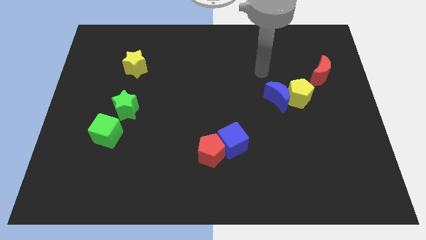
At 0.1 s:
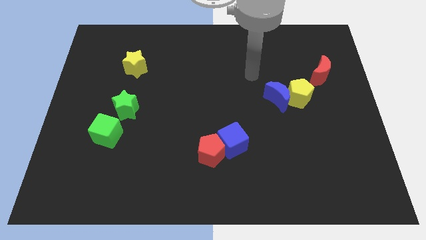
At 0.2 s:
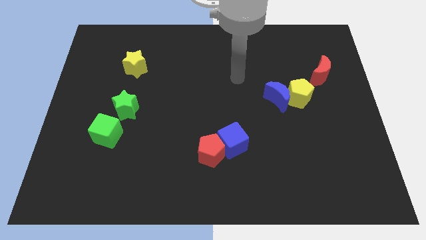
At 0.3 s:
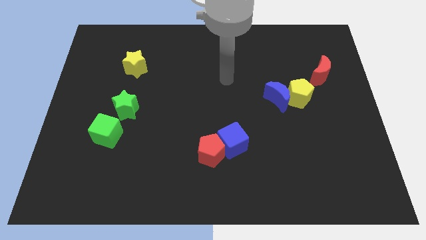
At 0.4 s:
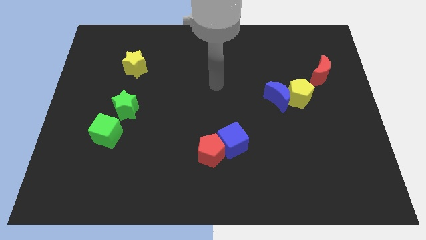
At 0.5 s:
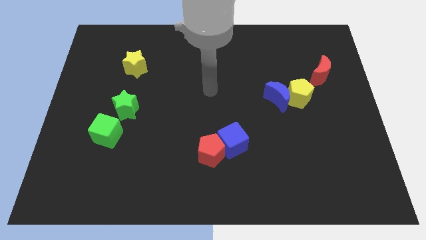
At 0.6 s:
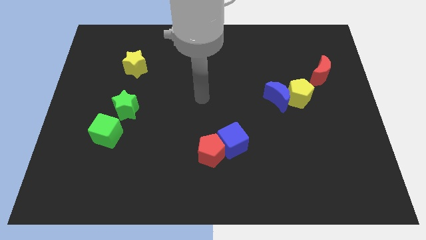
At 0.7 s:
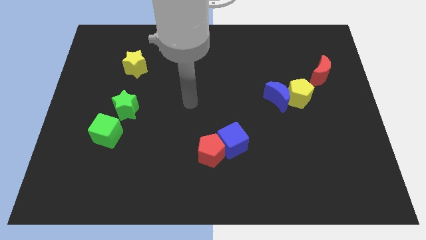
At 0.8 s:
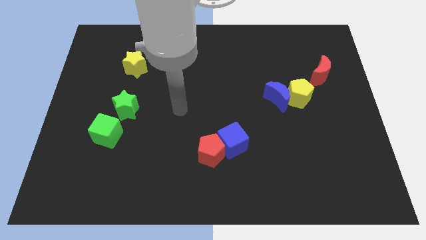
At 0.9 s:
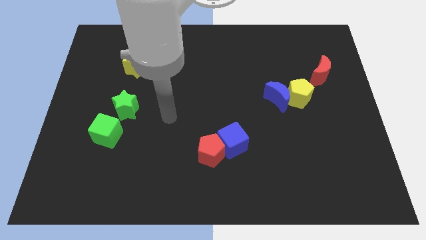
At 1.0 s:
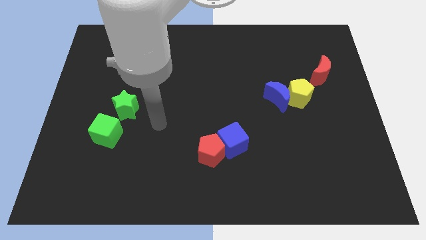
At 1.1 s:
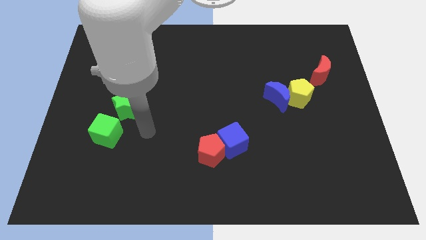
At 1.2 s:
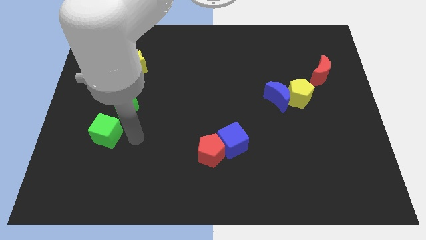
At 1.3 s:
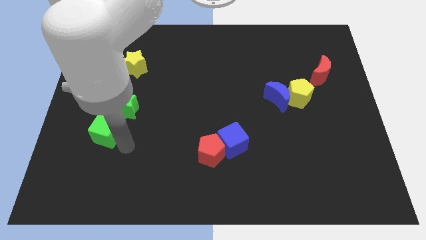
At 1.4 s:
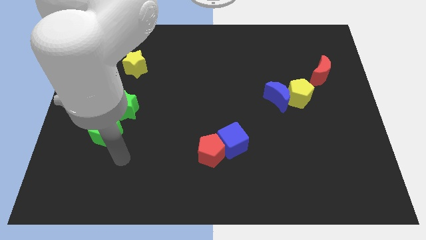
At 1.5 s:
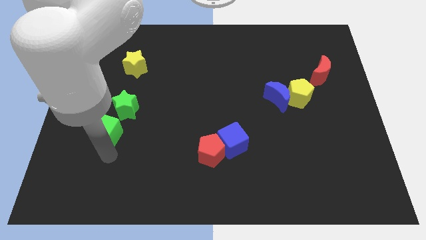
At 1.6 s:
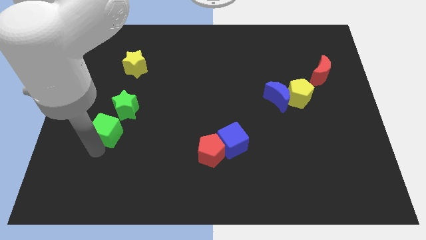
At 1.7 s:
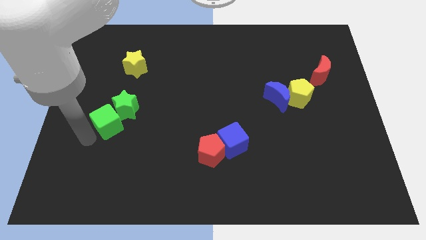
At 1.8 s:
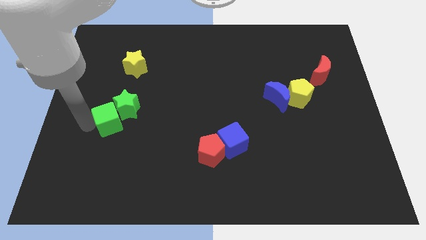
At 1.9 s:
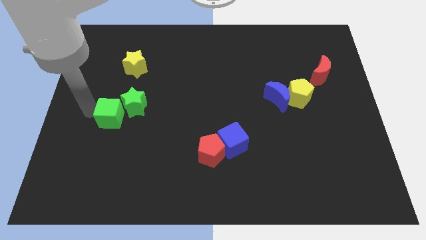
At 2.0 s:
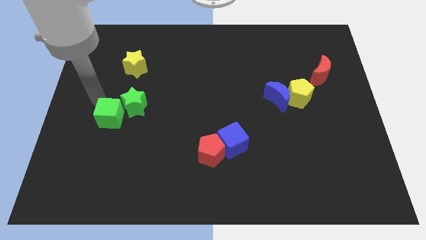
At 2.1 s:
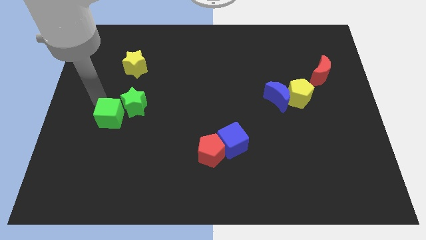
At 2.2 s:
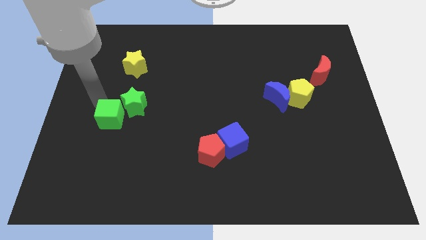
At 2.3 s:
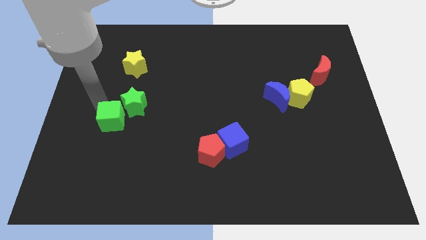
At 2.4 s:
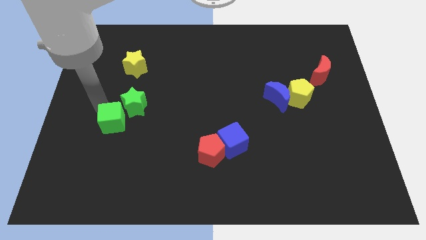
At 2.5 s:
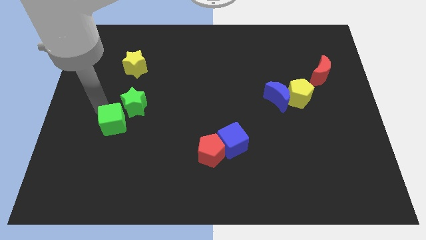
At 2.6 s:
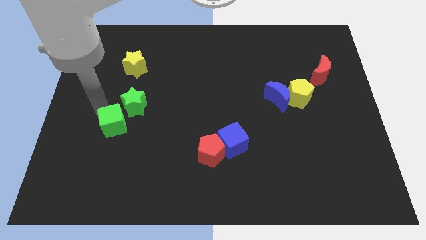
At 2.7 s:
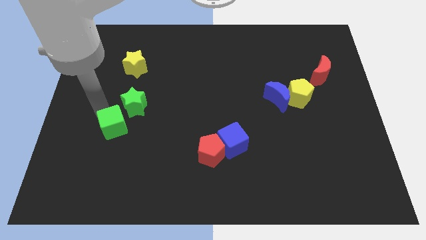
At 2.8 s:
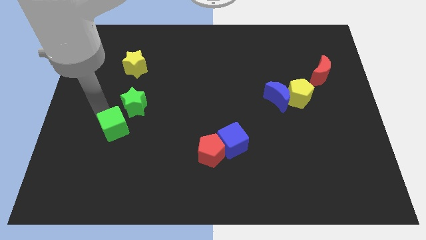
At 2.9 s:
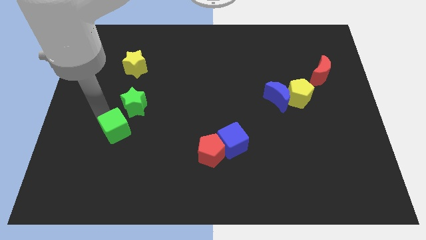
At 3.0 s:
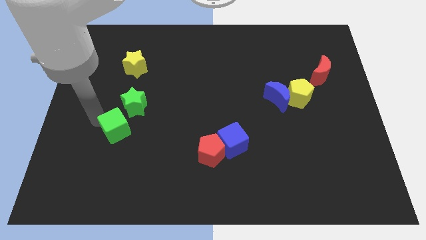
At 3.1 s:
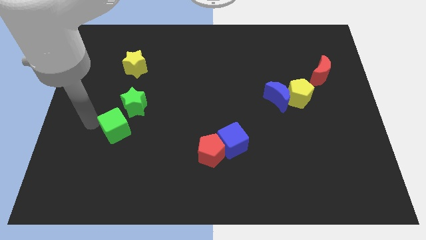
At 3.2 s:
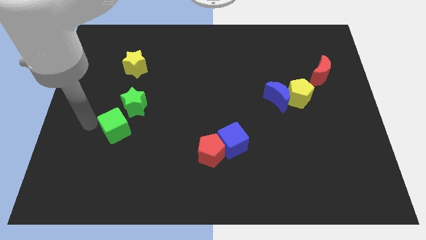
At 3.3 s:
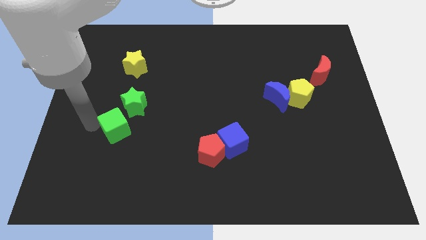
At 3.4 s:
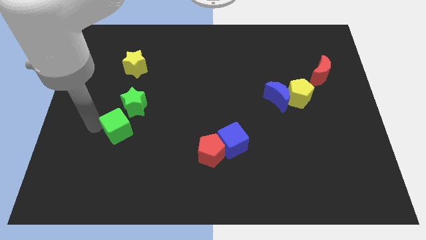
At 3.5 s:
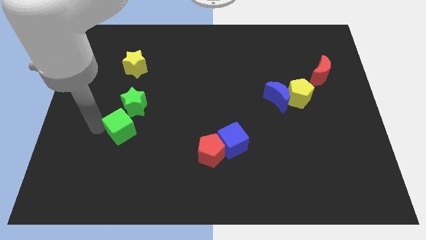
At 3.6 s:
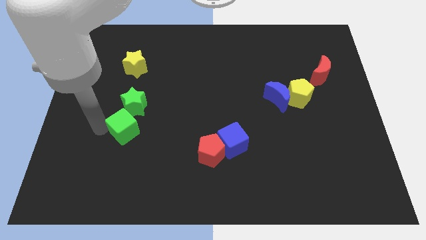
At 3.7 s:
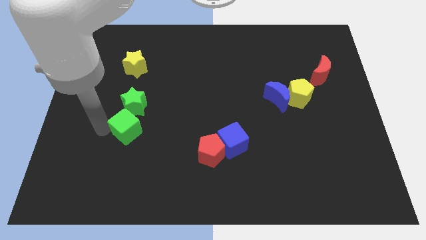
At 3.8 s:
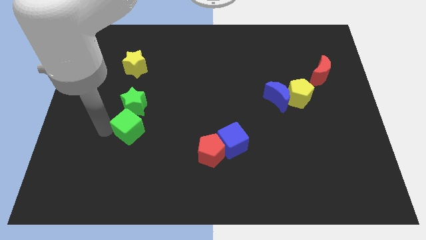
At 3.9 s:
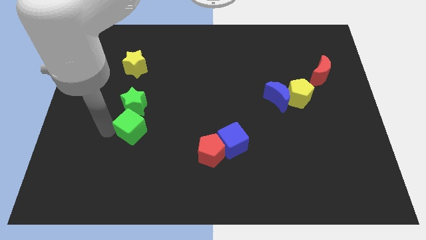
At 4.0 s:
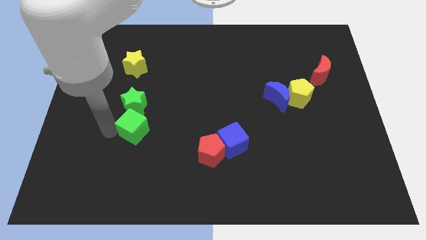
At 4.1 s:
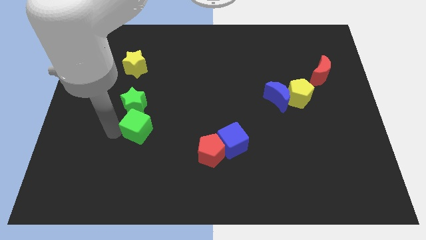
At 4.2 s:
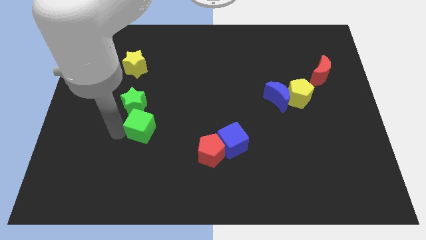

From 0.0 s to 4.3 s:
move the green cube right a little bit

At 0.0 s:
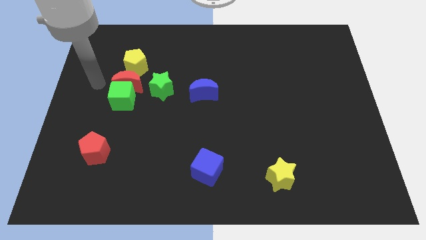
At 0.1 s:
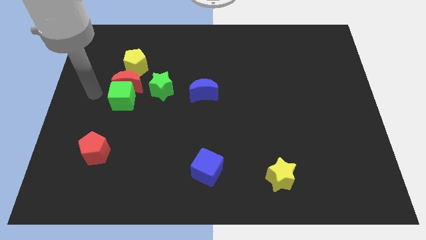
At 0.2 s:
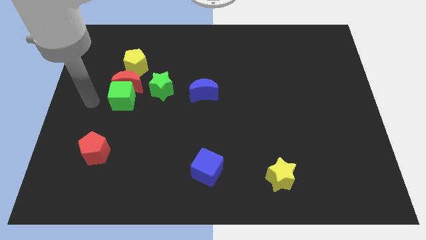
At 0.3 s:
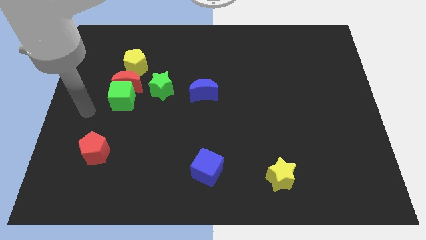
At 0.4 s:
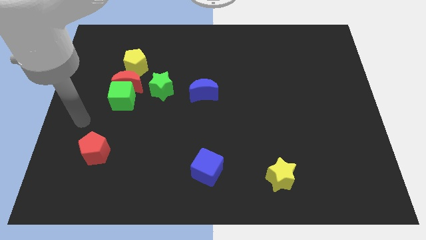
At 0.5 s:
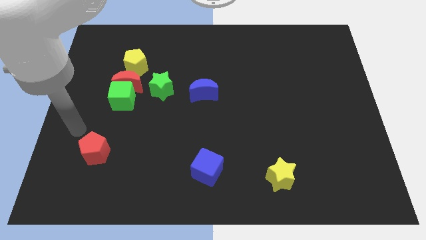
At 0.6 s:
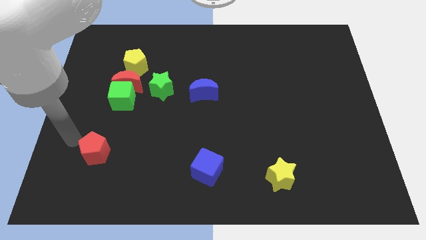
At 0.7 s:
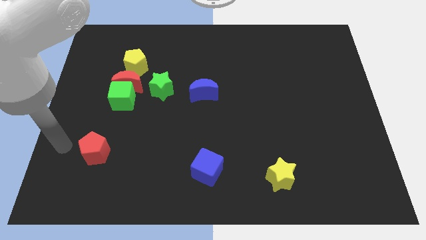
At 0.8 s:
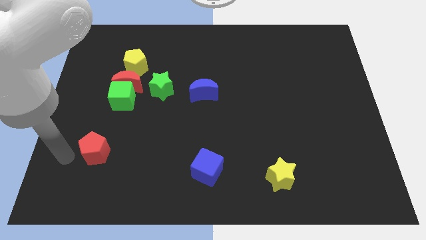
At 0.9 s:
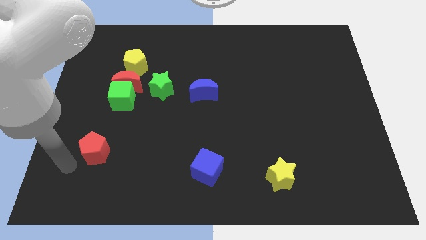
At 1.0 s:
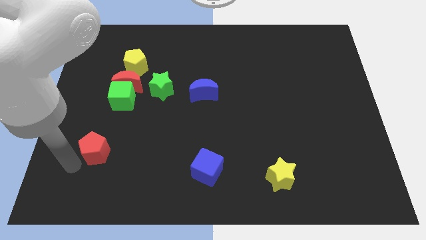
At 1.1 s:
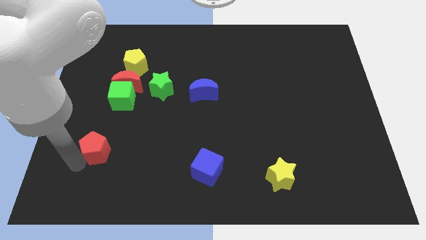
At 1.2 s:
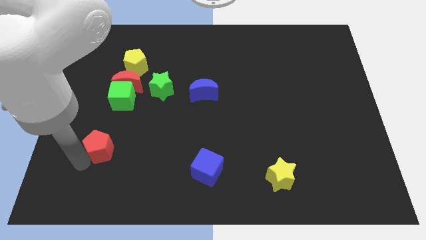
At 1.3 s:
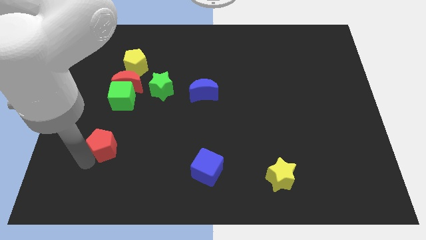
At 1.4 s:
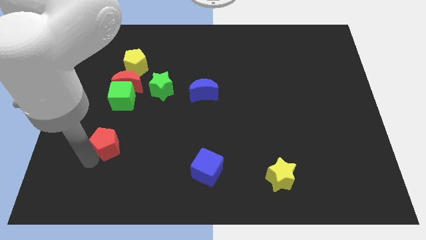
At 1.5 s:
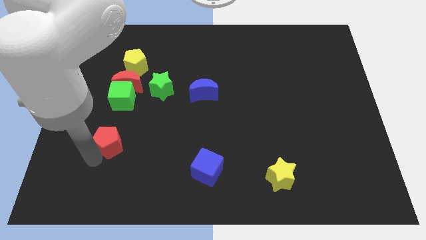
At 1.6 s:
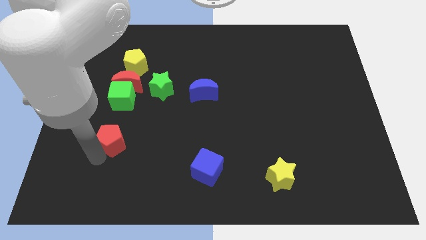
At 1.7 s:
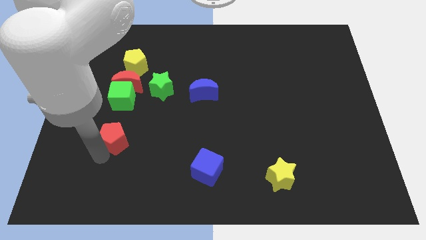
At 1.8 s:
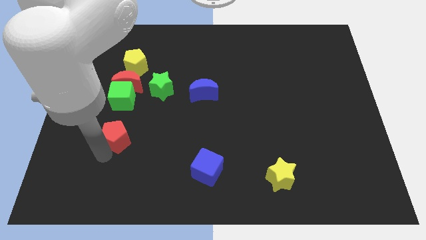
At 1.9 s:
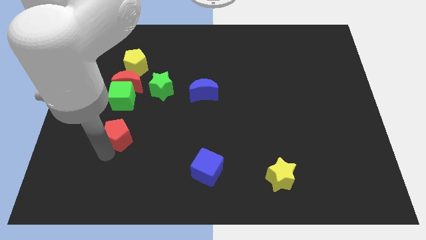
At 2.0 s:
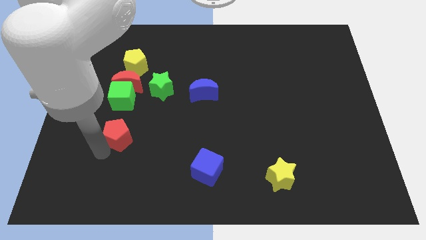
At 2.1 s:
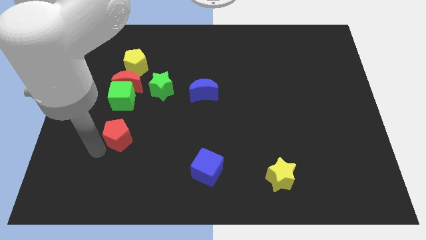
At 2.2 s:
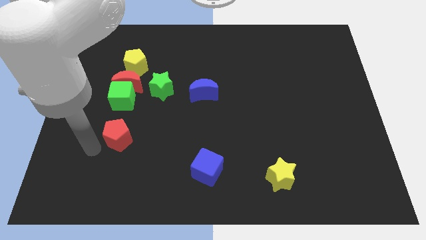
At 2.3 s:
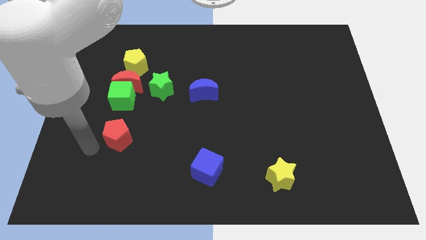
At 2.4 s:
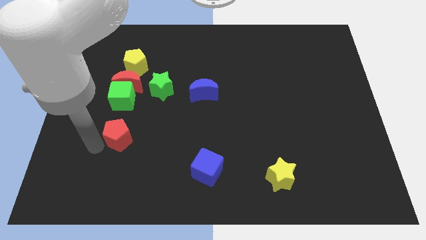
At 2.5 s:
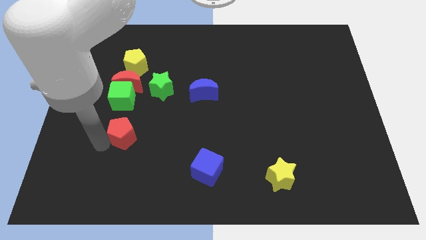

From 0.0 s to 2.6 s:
slide the red pentagon up and then to the right a little bit

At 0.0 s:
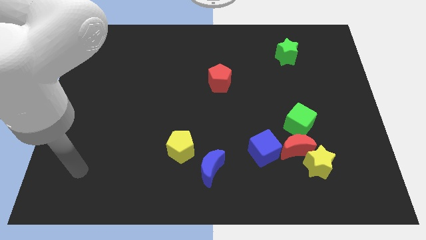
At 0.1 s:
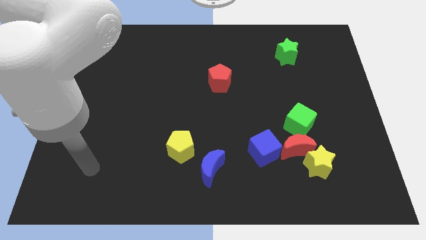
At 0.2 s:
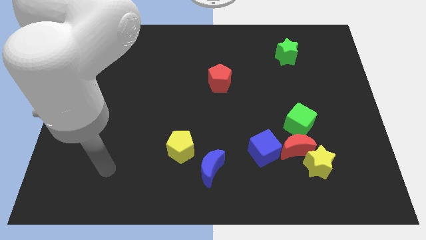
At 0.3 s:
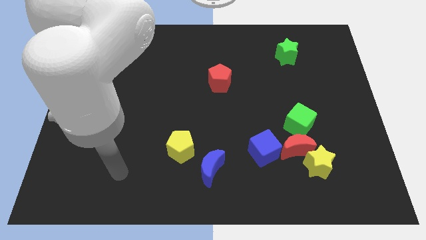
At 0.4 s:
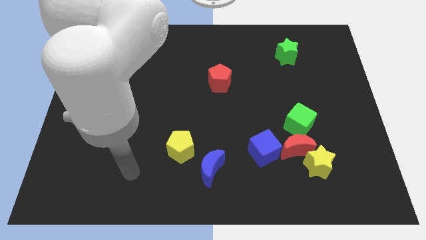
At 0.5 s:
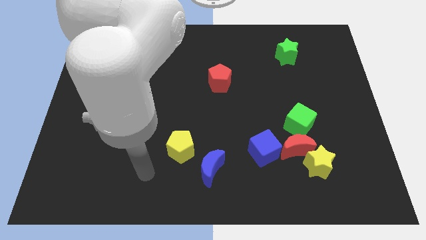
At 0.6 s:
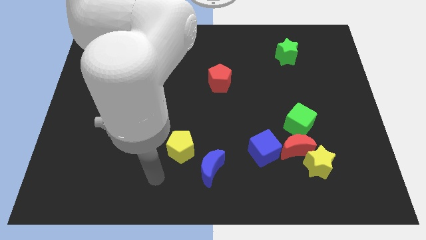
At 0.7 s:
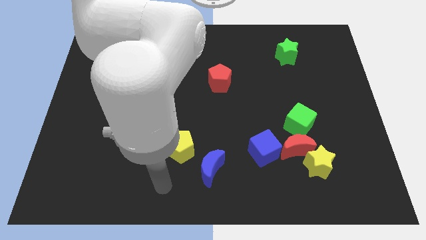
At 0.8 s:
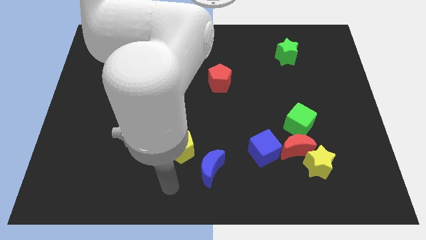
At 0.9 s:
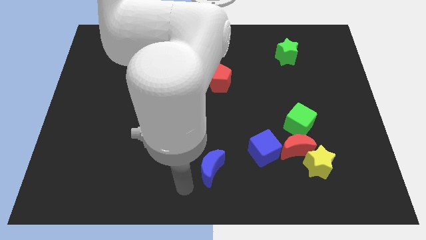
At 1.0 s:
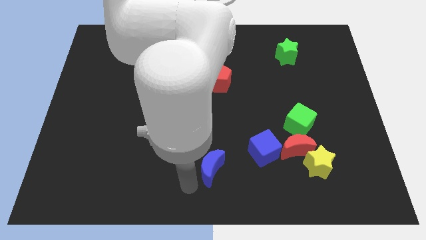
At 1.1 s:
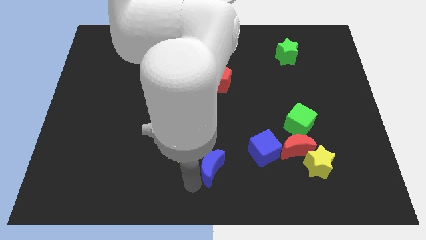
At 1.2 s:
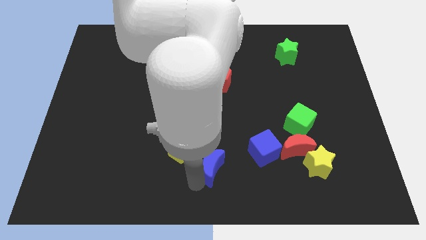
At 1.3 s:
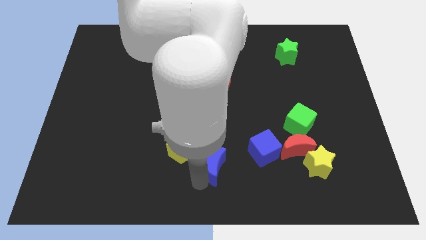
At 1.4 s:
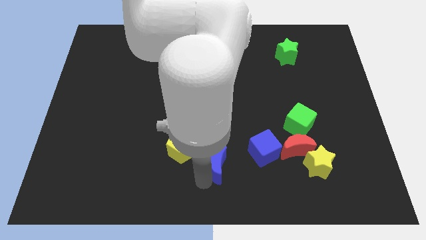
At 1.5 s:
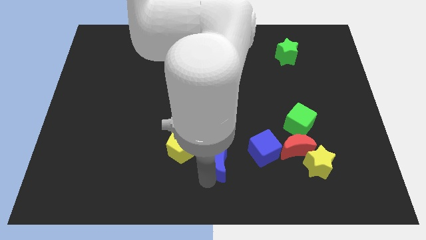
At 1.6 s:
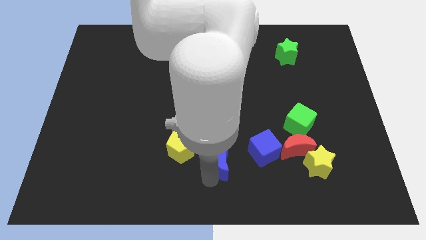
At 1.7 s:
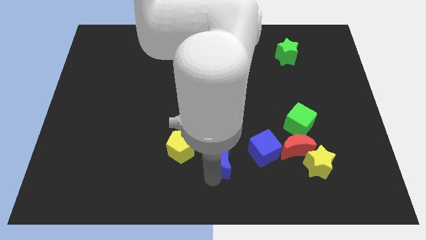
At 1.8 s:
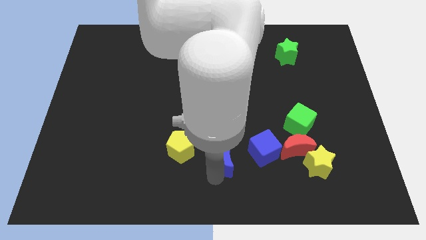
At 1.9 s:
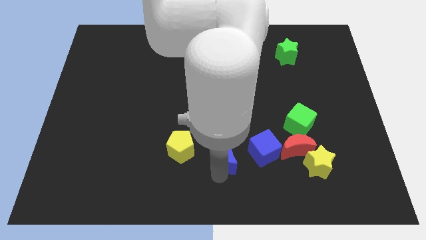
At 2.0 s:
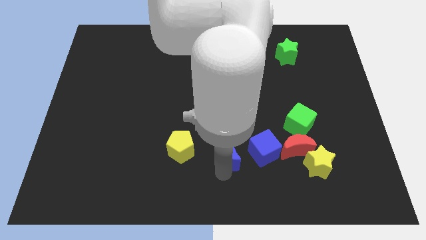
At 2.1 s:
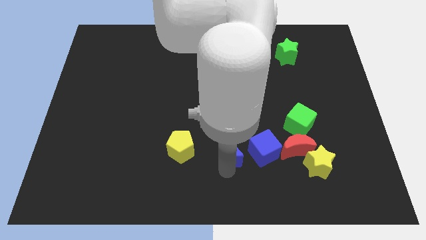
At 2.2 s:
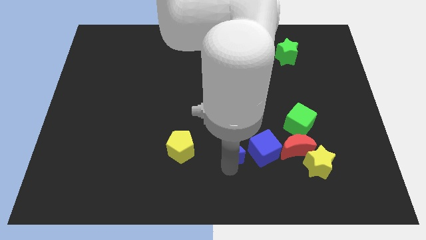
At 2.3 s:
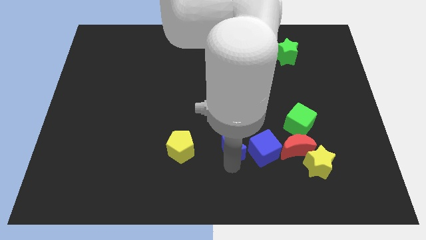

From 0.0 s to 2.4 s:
move the blue moon diagonally upwards and right a bit
